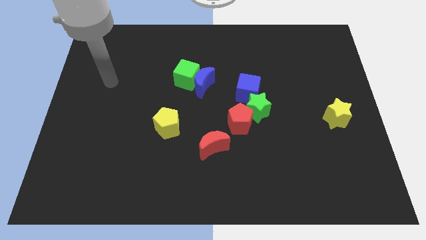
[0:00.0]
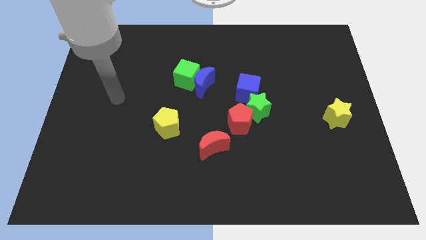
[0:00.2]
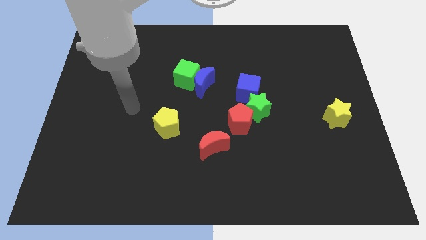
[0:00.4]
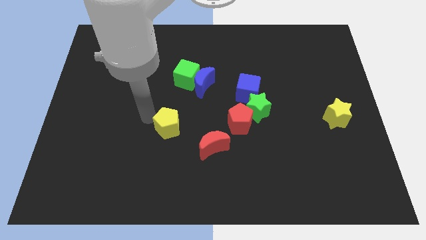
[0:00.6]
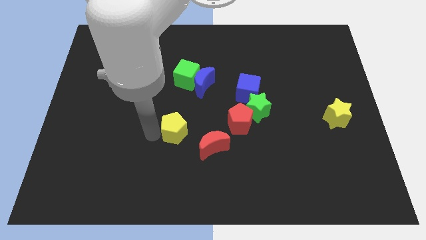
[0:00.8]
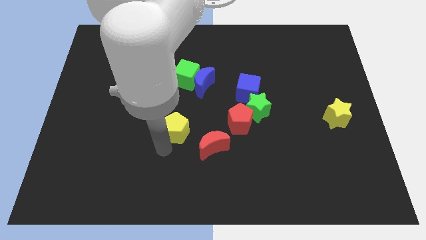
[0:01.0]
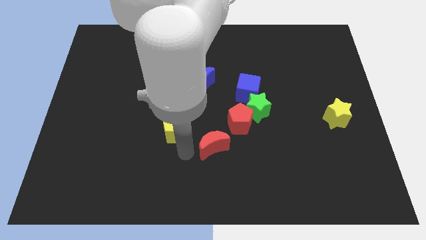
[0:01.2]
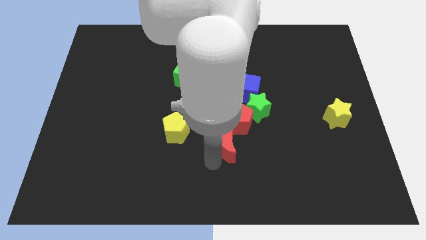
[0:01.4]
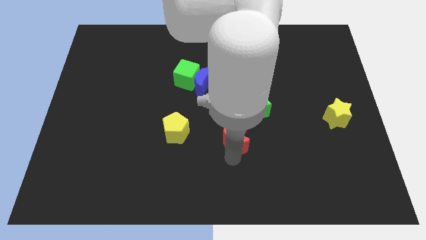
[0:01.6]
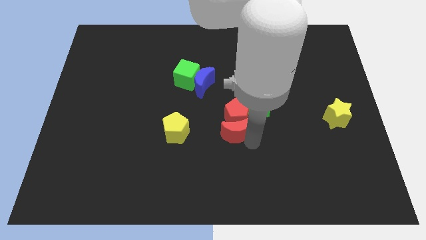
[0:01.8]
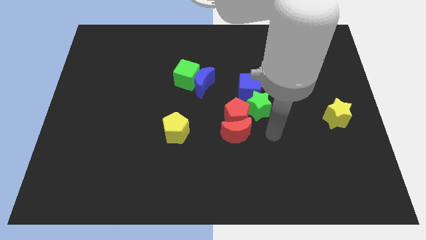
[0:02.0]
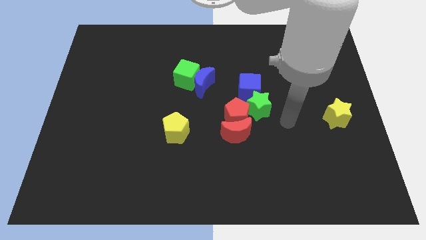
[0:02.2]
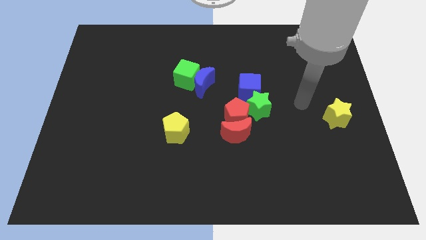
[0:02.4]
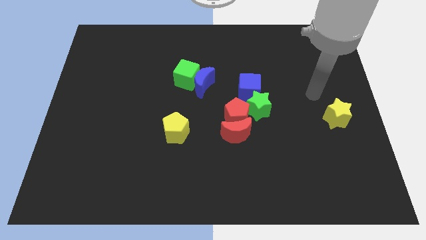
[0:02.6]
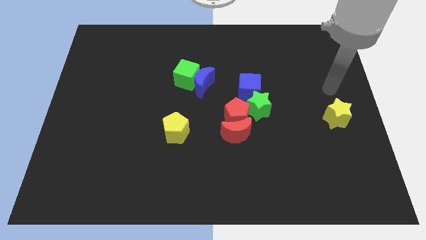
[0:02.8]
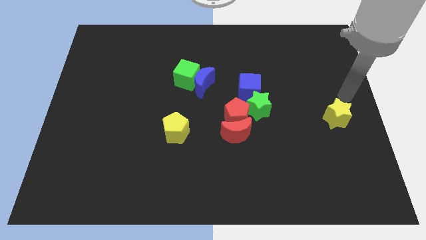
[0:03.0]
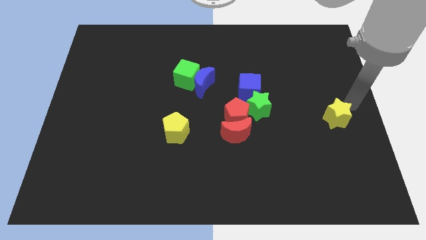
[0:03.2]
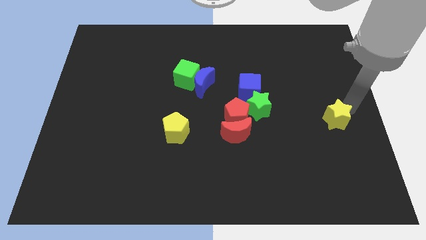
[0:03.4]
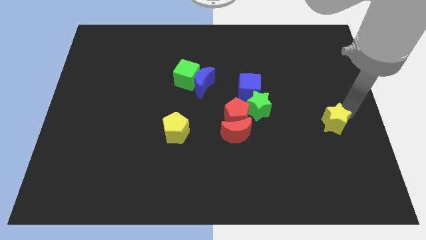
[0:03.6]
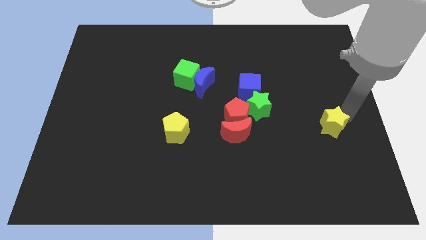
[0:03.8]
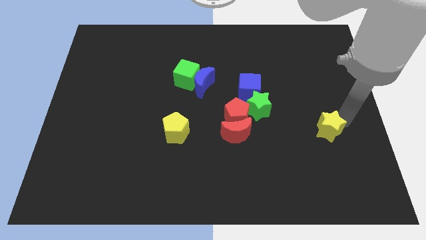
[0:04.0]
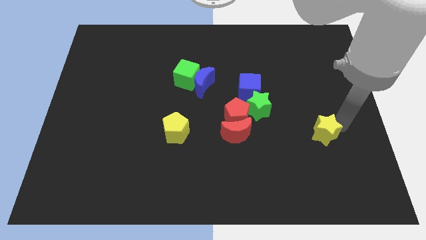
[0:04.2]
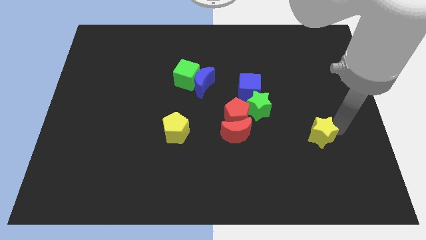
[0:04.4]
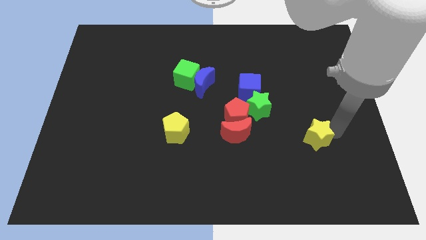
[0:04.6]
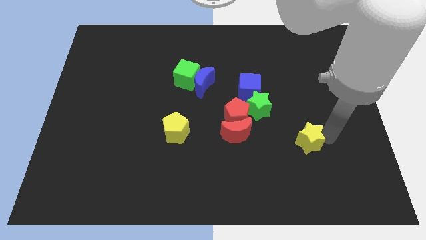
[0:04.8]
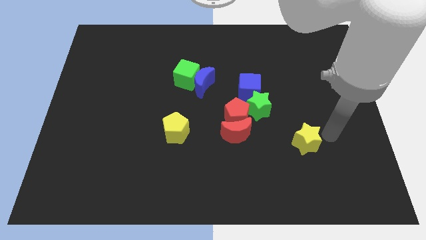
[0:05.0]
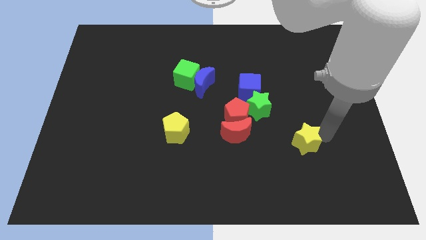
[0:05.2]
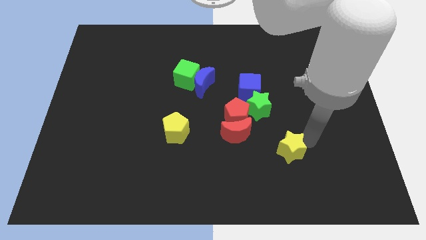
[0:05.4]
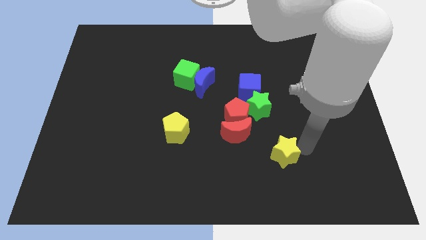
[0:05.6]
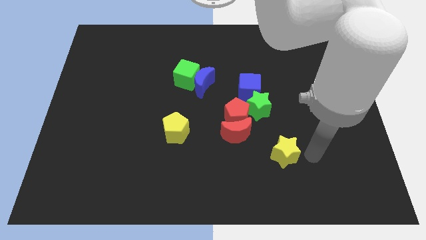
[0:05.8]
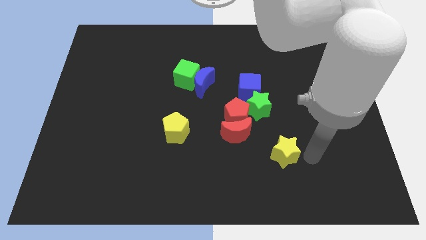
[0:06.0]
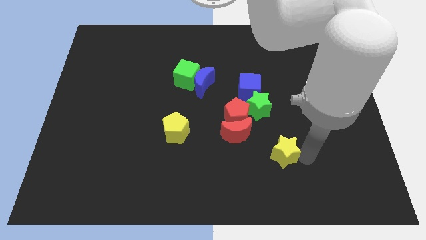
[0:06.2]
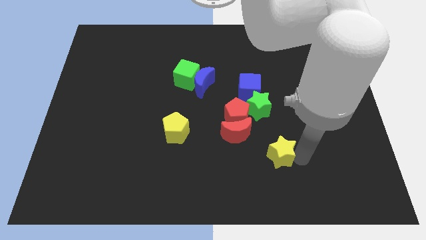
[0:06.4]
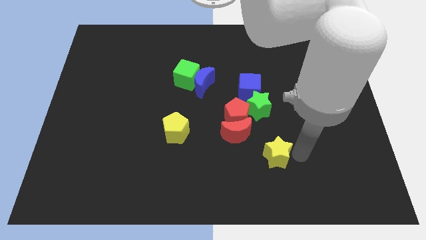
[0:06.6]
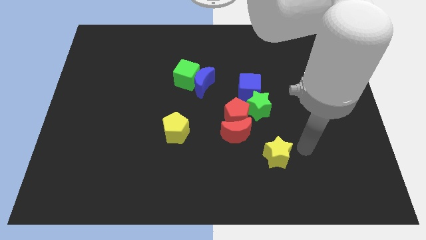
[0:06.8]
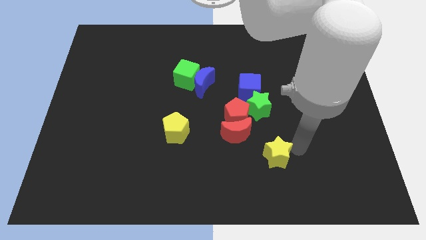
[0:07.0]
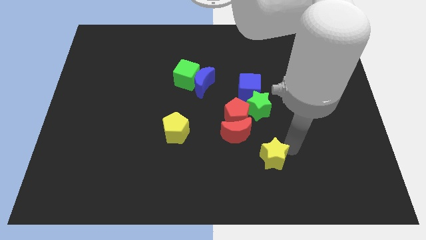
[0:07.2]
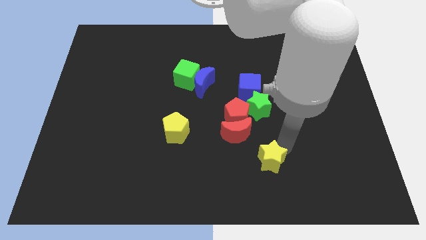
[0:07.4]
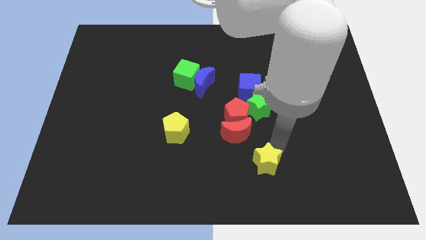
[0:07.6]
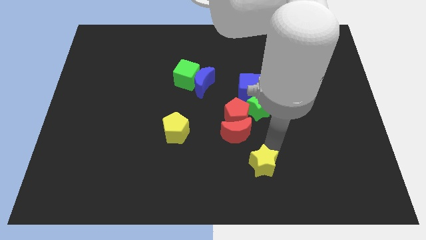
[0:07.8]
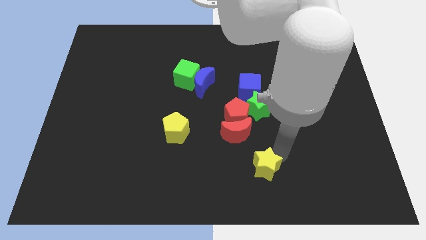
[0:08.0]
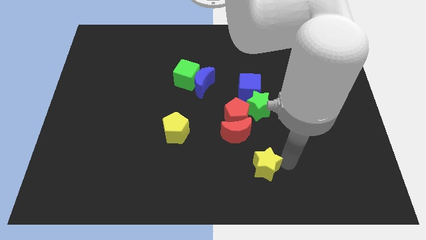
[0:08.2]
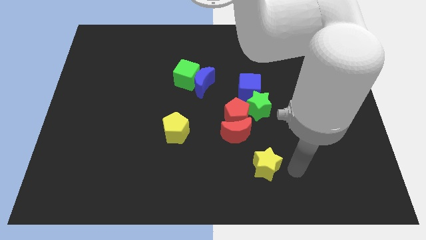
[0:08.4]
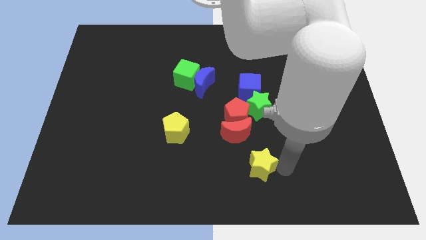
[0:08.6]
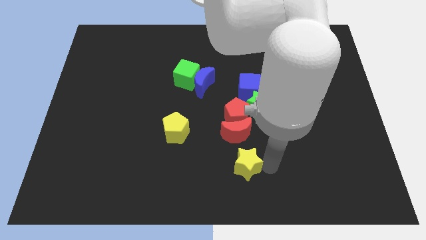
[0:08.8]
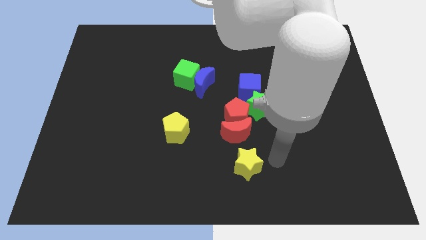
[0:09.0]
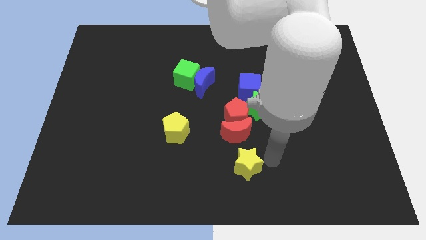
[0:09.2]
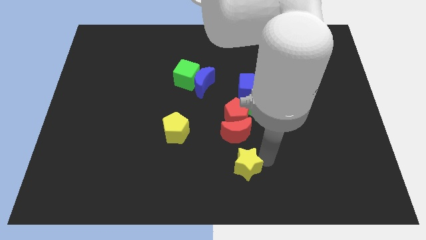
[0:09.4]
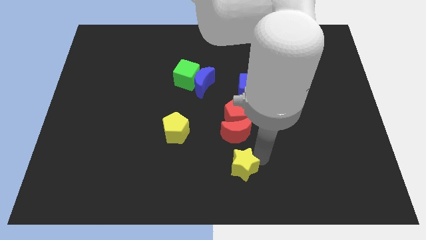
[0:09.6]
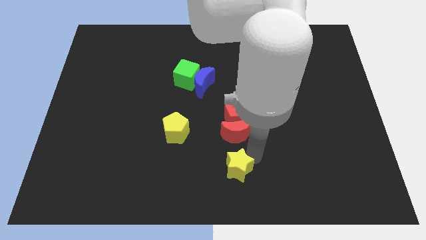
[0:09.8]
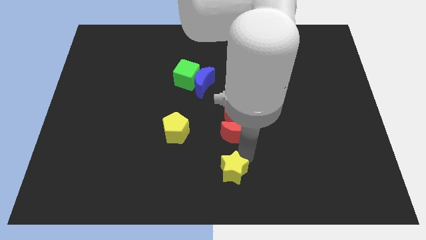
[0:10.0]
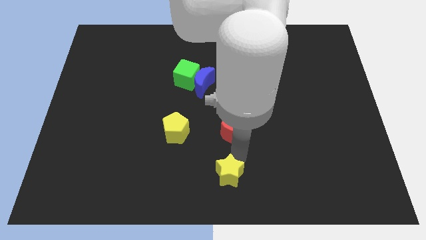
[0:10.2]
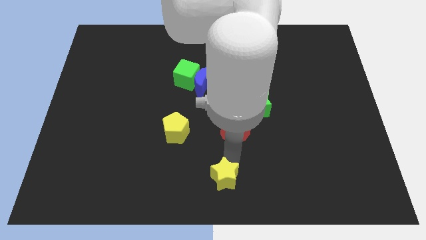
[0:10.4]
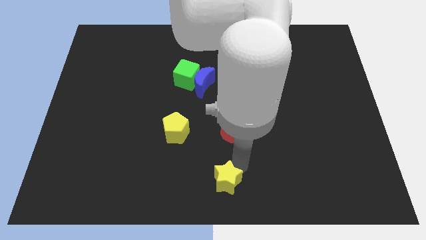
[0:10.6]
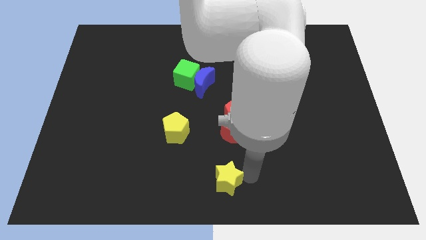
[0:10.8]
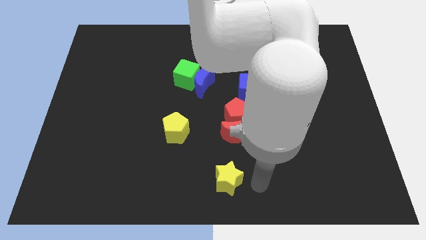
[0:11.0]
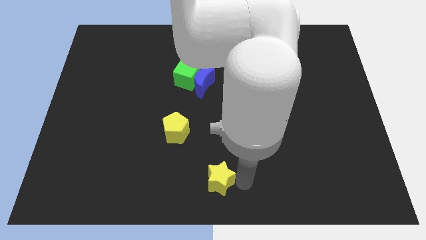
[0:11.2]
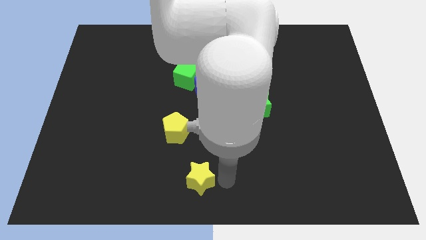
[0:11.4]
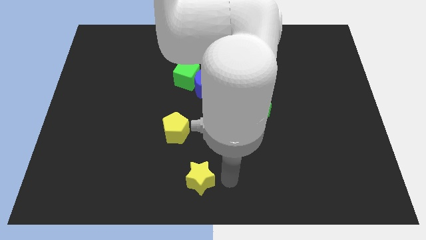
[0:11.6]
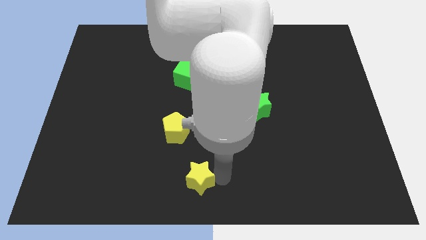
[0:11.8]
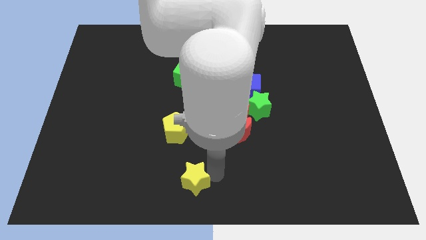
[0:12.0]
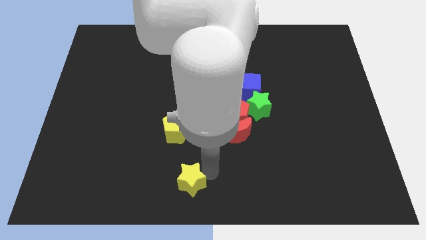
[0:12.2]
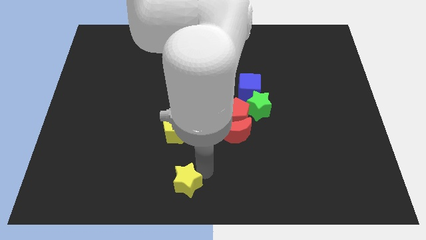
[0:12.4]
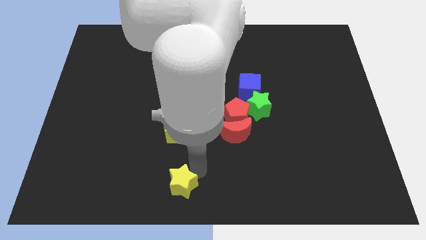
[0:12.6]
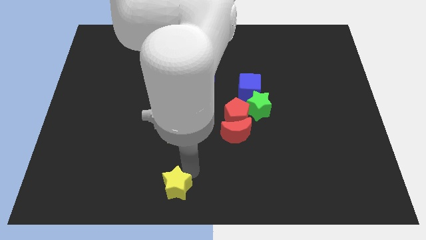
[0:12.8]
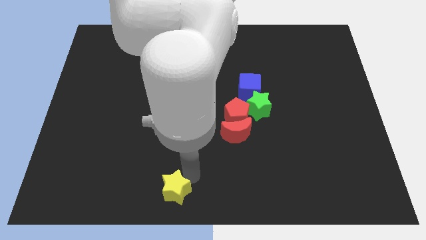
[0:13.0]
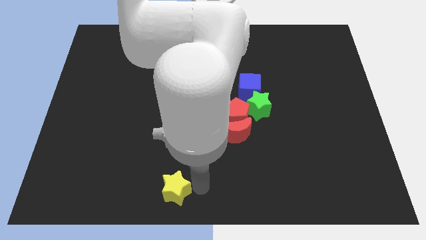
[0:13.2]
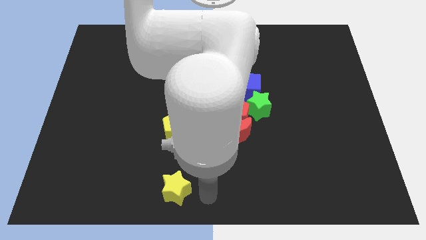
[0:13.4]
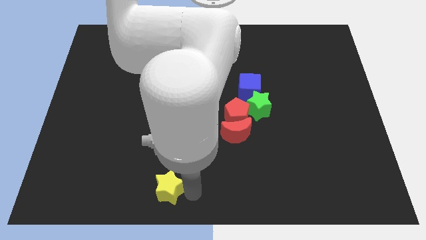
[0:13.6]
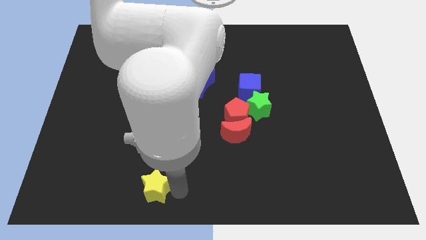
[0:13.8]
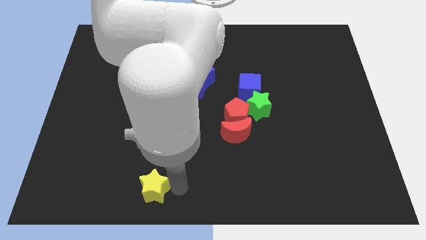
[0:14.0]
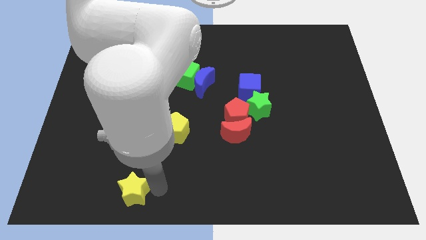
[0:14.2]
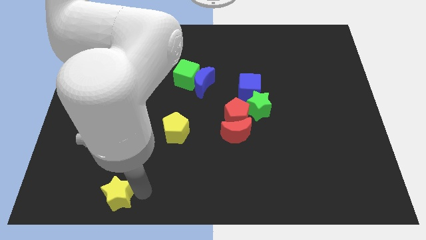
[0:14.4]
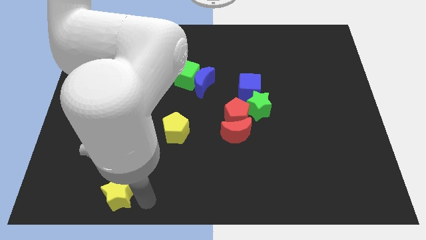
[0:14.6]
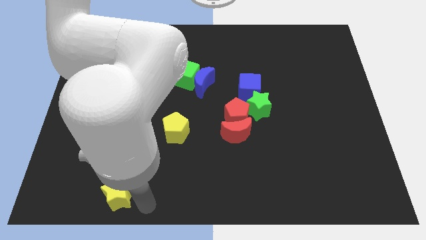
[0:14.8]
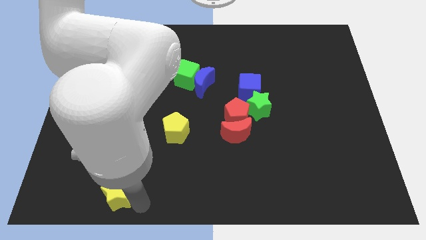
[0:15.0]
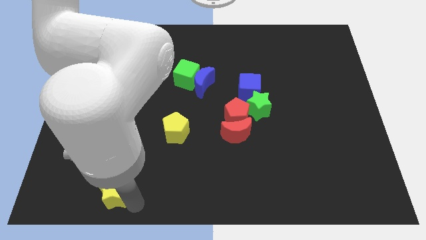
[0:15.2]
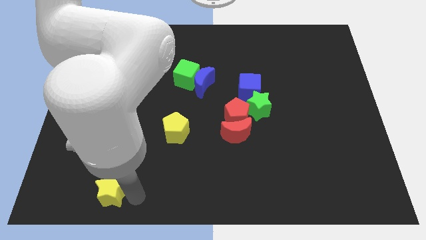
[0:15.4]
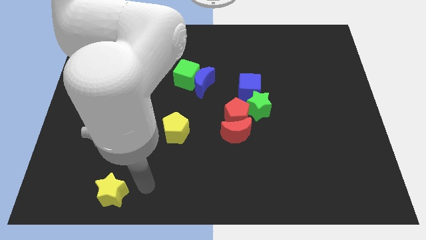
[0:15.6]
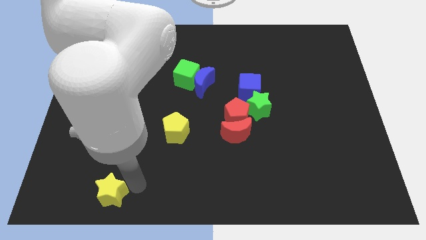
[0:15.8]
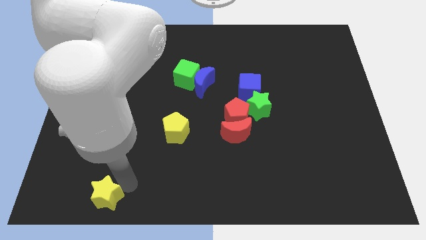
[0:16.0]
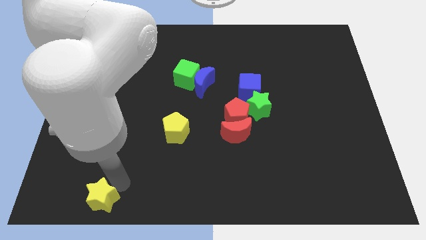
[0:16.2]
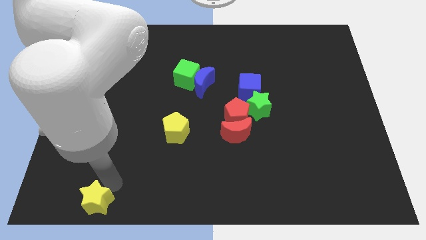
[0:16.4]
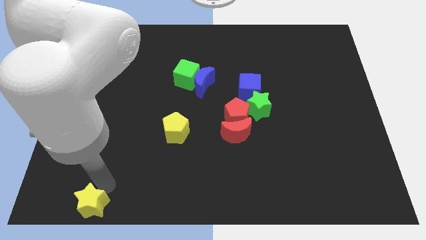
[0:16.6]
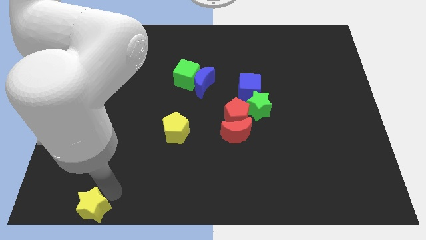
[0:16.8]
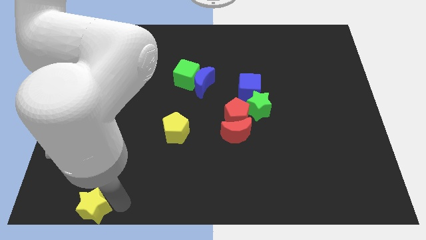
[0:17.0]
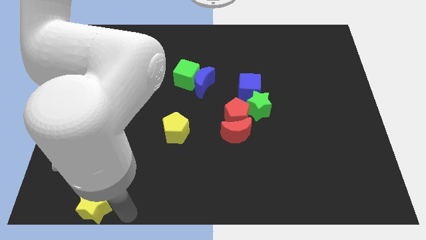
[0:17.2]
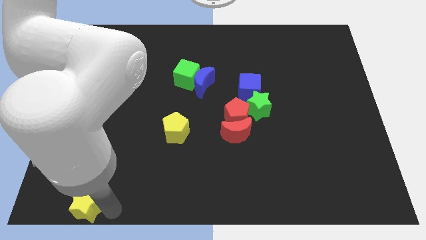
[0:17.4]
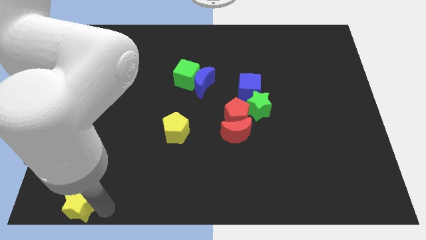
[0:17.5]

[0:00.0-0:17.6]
push the yellow star to the bottom left of the board
